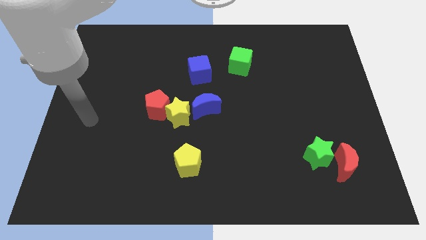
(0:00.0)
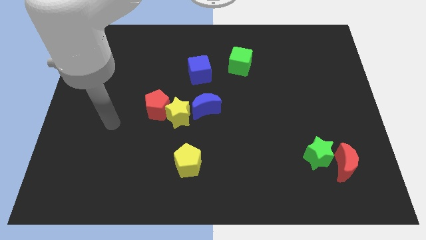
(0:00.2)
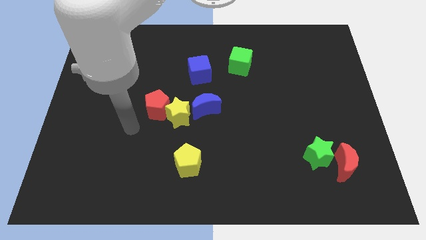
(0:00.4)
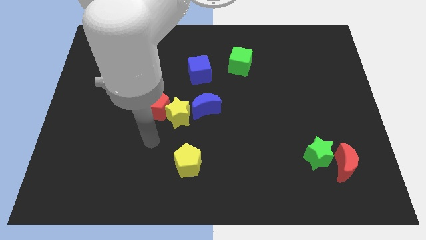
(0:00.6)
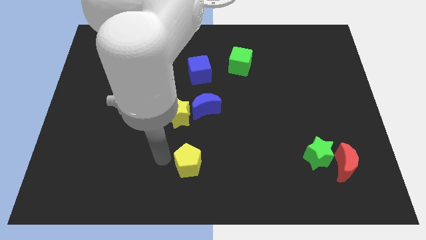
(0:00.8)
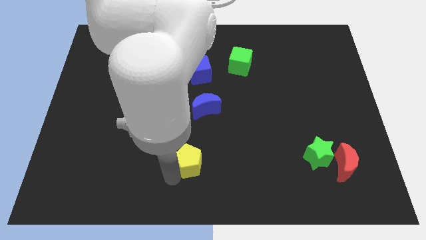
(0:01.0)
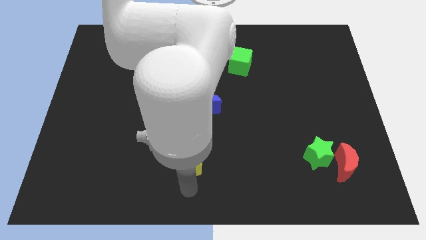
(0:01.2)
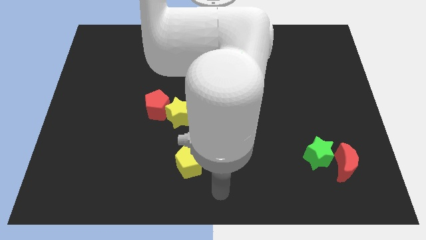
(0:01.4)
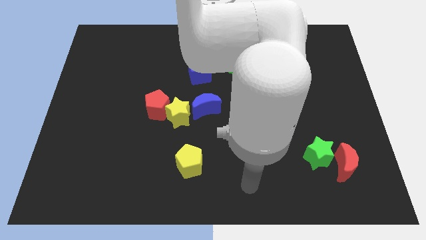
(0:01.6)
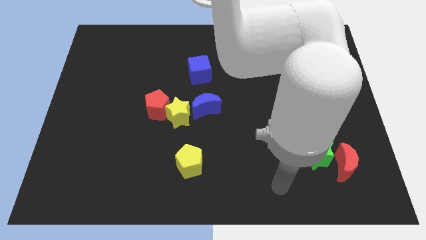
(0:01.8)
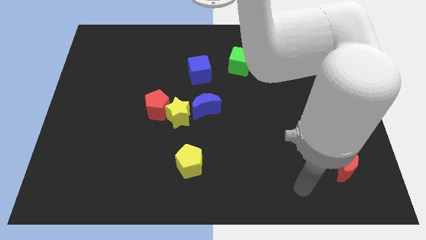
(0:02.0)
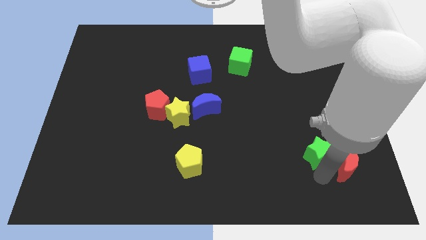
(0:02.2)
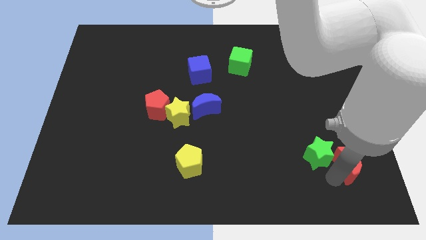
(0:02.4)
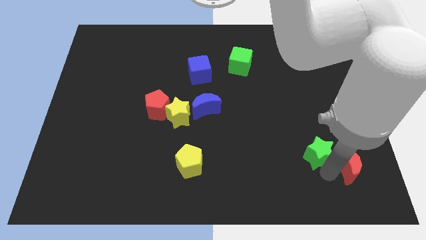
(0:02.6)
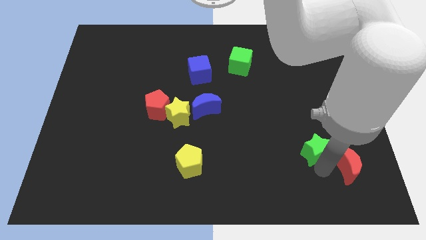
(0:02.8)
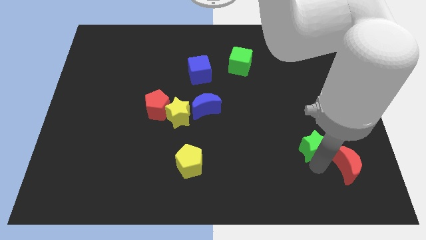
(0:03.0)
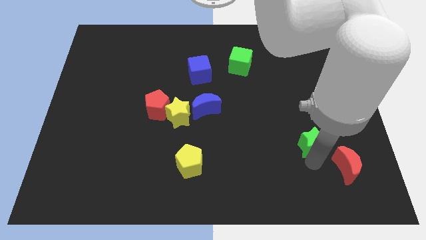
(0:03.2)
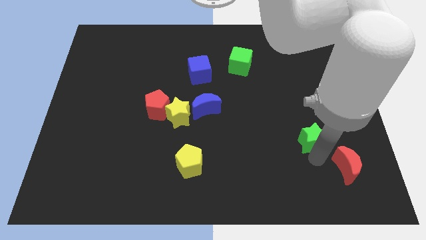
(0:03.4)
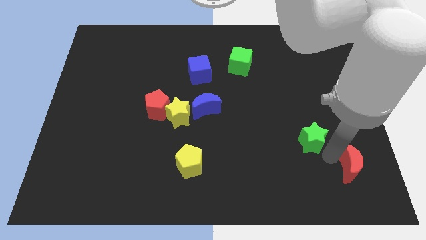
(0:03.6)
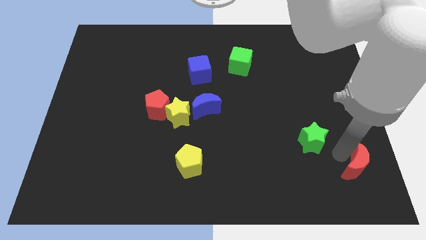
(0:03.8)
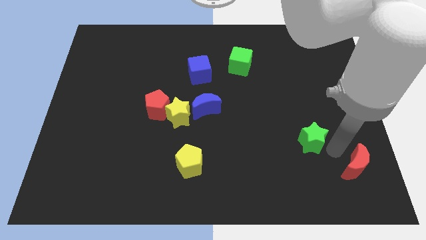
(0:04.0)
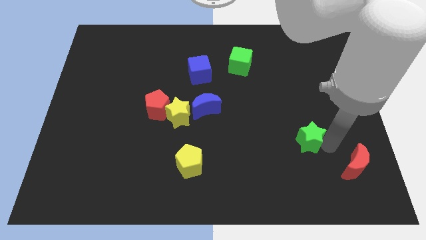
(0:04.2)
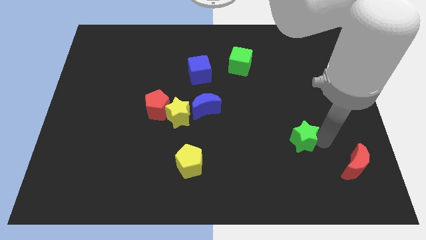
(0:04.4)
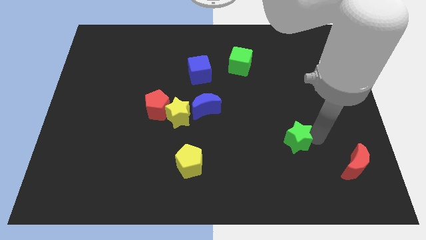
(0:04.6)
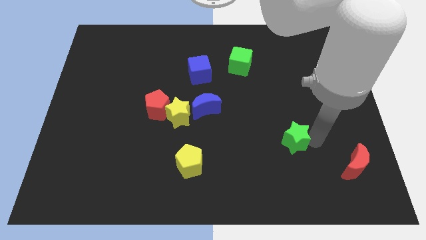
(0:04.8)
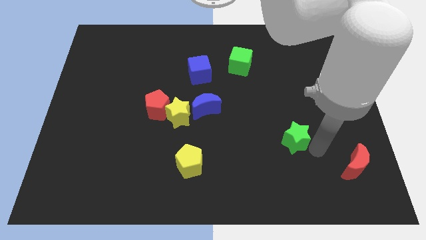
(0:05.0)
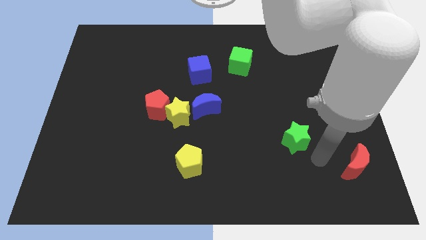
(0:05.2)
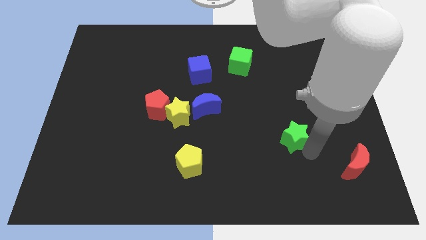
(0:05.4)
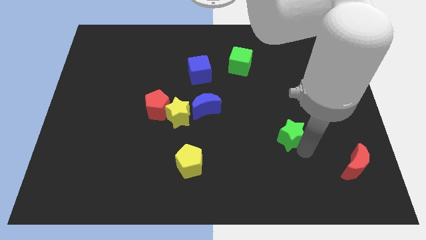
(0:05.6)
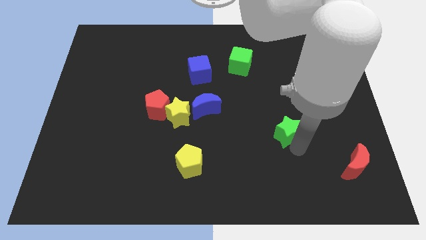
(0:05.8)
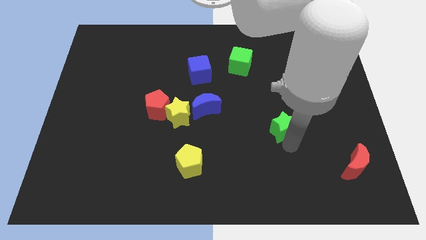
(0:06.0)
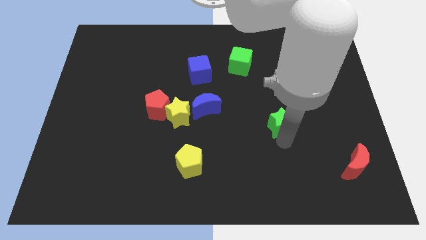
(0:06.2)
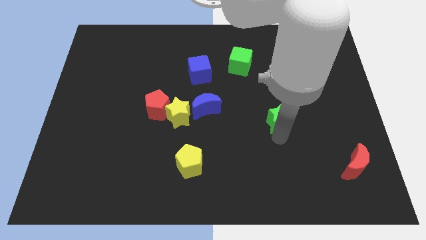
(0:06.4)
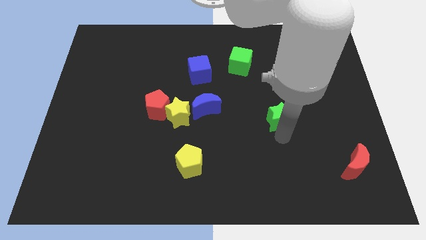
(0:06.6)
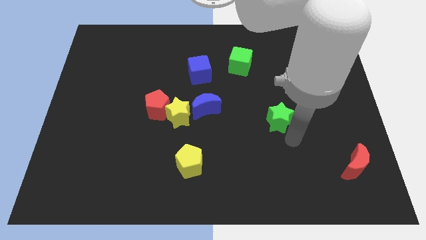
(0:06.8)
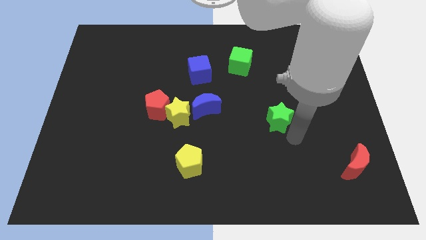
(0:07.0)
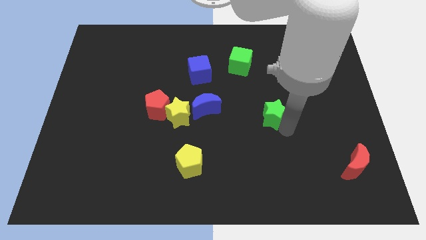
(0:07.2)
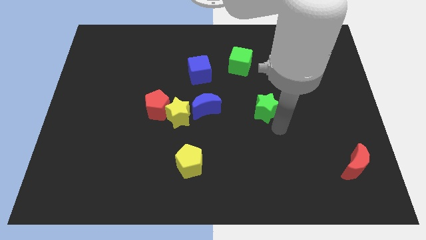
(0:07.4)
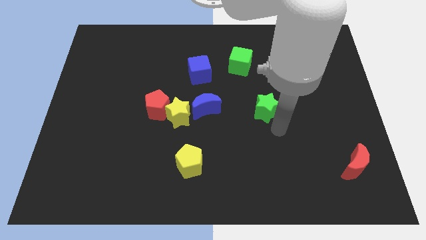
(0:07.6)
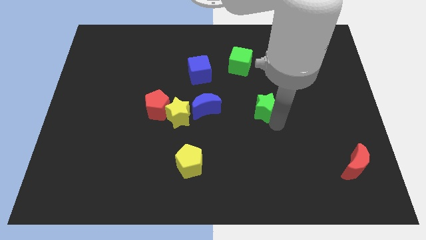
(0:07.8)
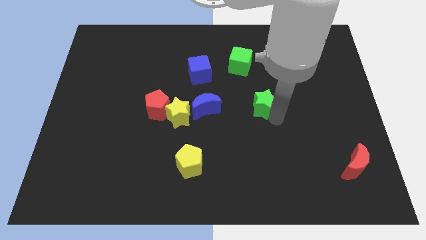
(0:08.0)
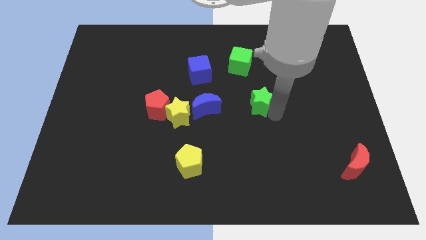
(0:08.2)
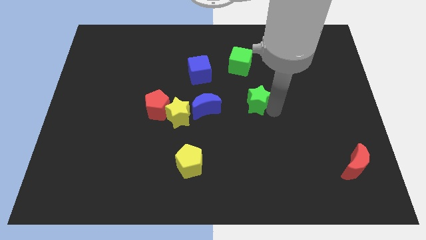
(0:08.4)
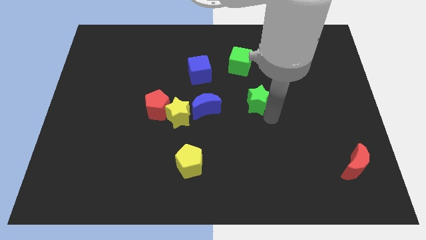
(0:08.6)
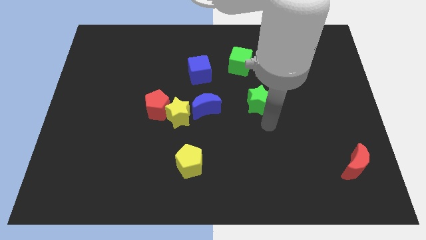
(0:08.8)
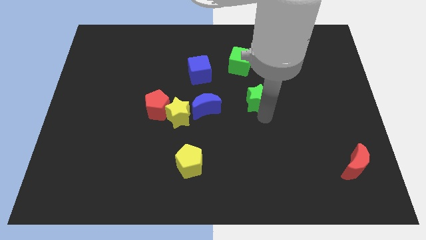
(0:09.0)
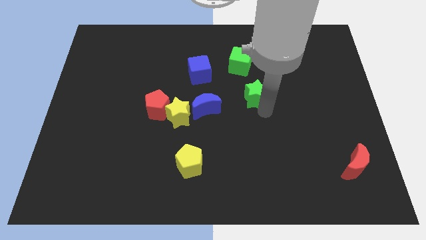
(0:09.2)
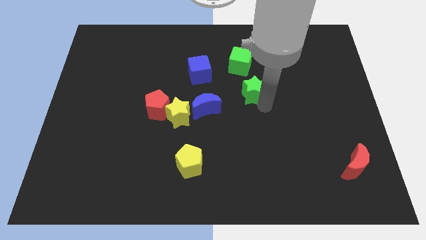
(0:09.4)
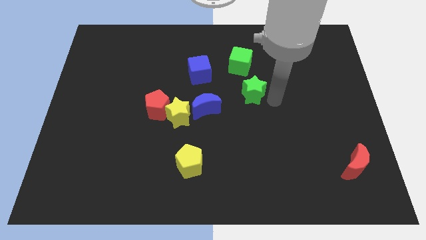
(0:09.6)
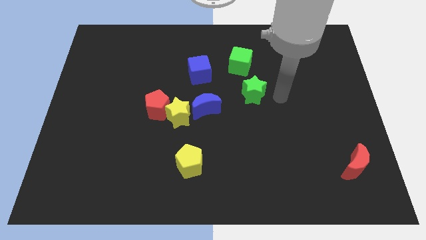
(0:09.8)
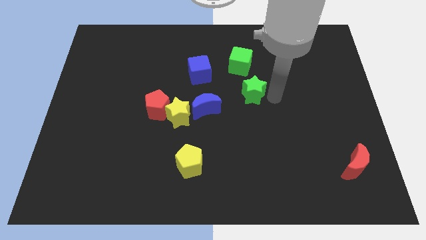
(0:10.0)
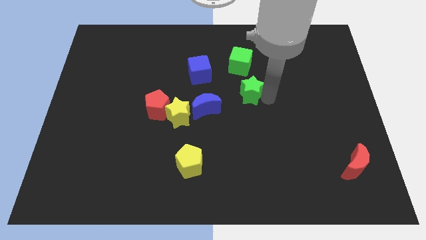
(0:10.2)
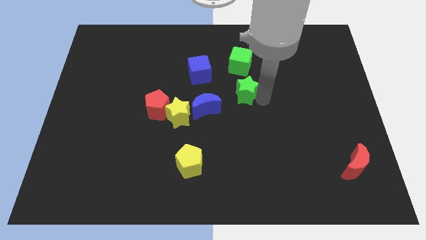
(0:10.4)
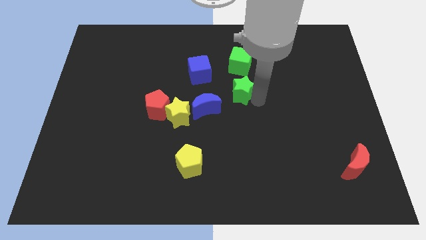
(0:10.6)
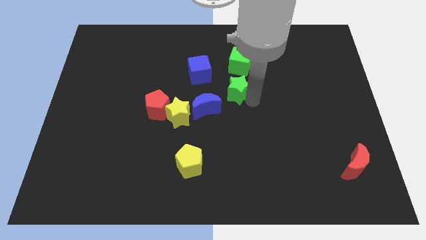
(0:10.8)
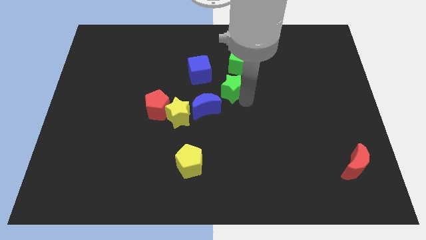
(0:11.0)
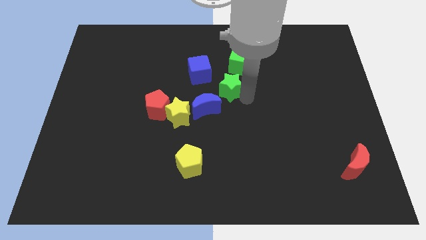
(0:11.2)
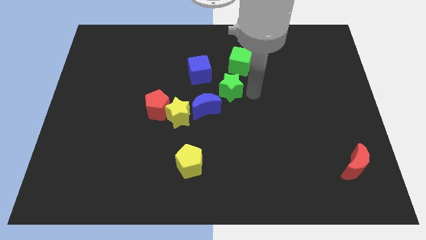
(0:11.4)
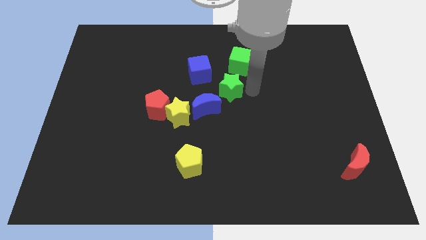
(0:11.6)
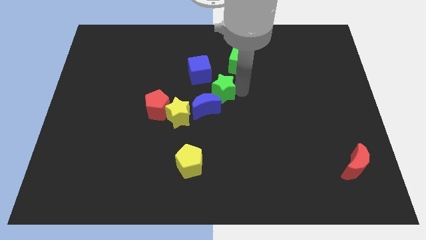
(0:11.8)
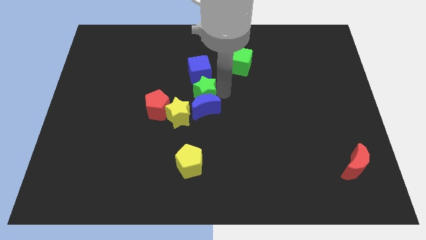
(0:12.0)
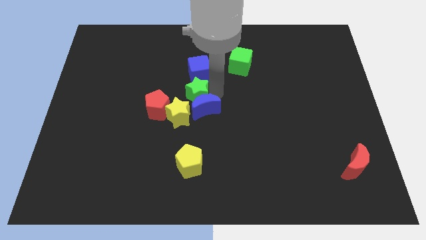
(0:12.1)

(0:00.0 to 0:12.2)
slide the green star to the top right of the red pentagon
